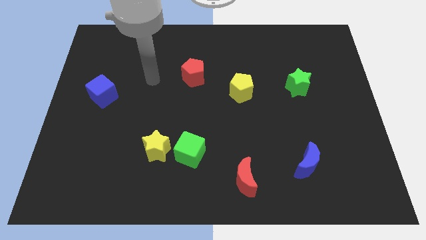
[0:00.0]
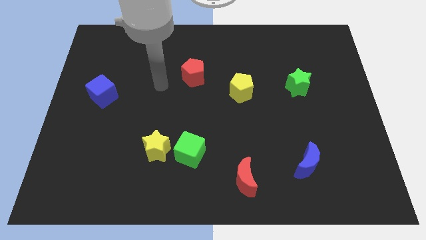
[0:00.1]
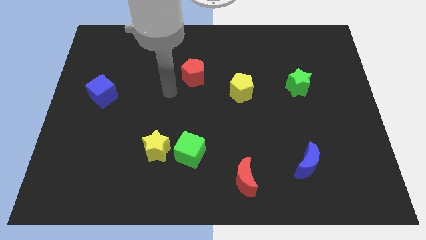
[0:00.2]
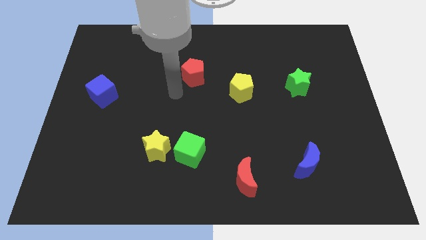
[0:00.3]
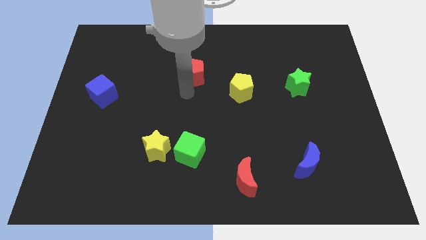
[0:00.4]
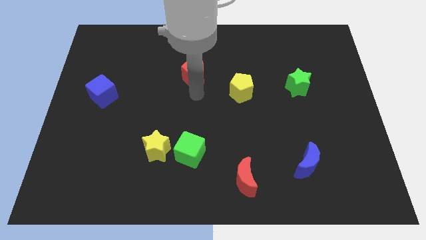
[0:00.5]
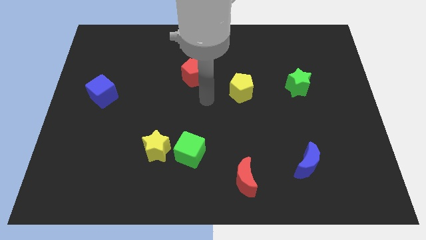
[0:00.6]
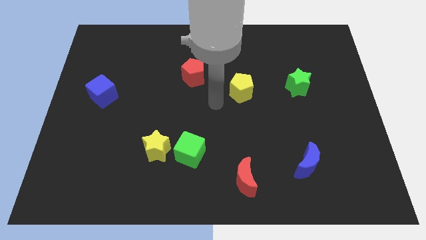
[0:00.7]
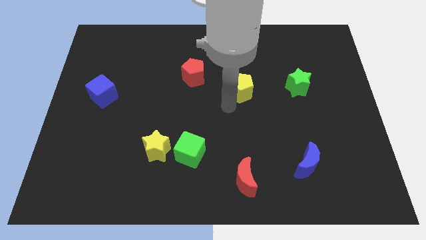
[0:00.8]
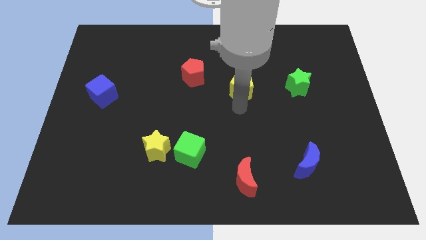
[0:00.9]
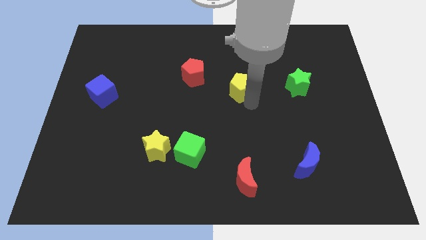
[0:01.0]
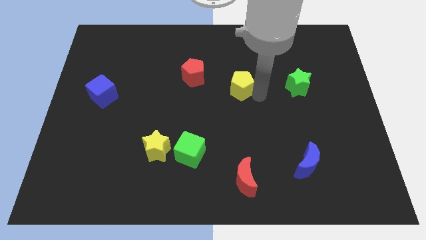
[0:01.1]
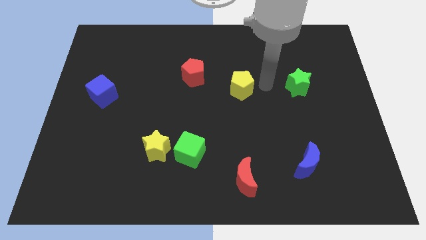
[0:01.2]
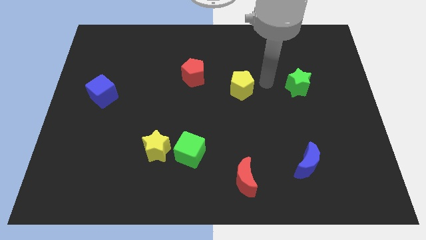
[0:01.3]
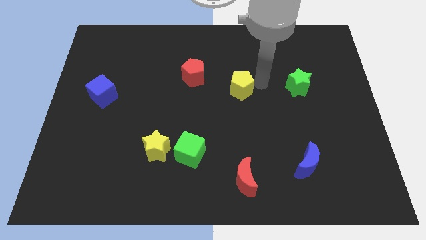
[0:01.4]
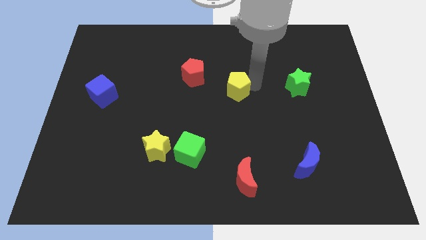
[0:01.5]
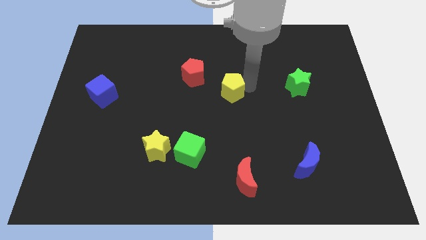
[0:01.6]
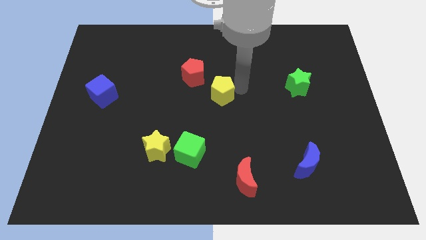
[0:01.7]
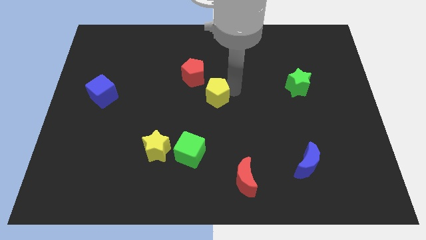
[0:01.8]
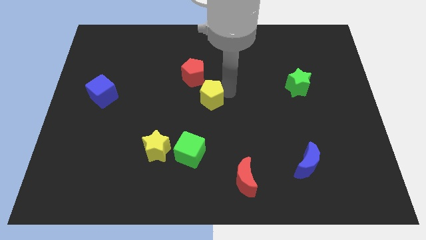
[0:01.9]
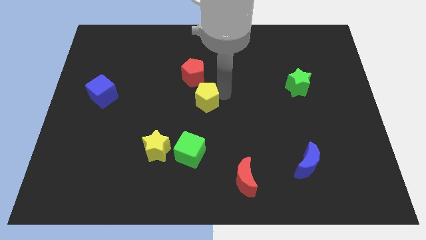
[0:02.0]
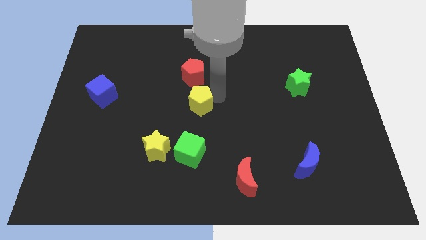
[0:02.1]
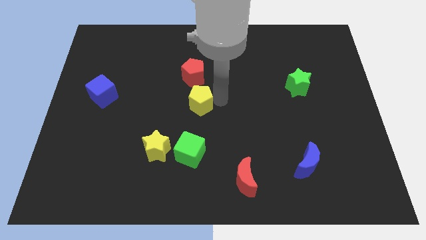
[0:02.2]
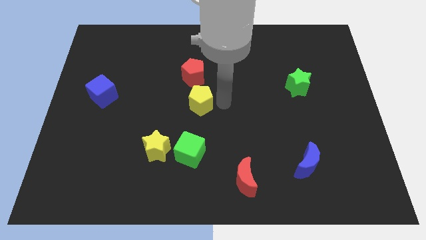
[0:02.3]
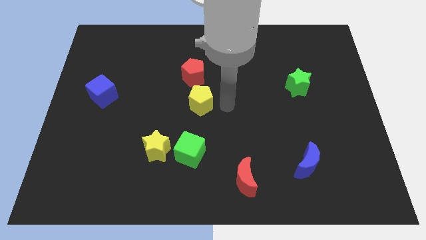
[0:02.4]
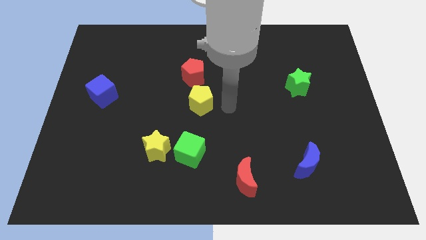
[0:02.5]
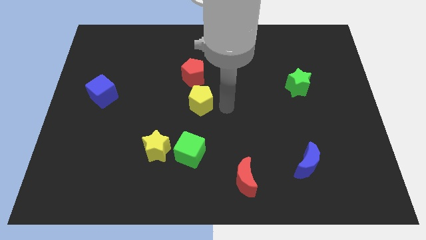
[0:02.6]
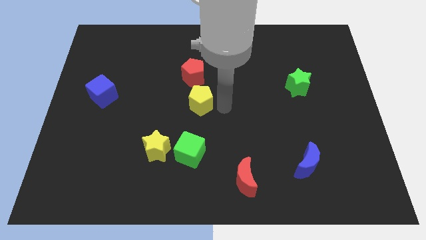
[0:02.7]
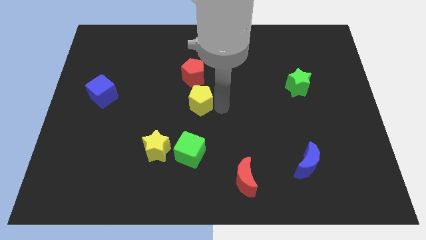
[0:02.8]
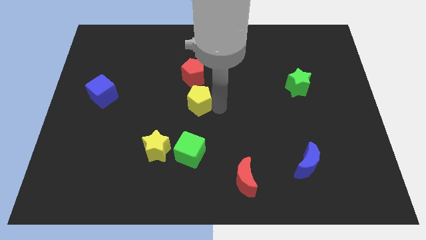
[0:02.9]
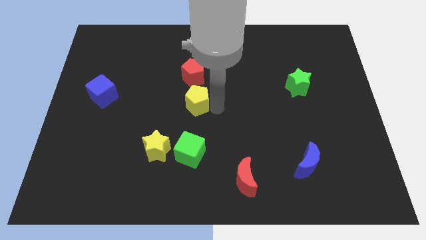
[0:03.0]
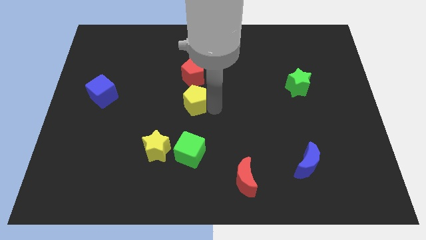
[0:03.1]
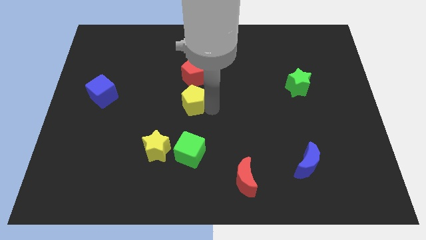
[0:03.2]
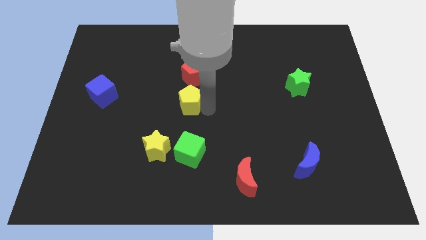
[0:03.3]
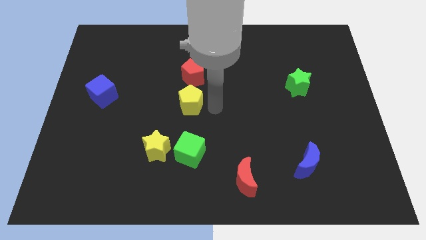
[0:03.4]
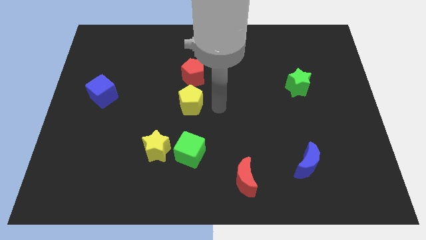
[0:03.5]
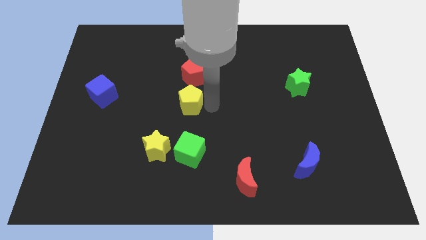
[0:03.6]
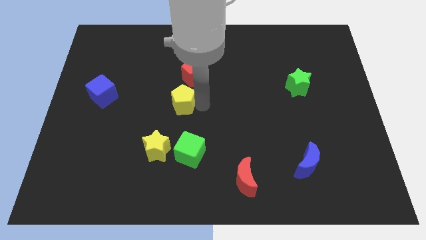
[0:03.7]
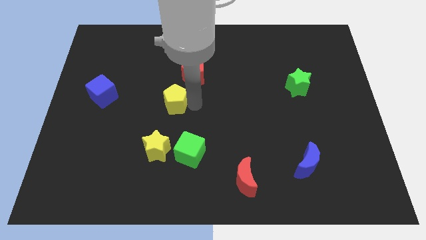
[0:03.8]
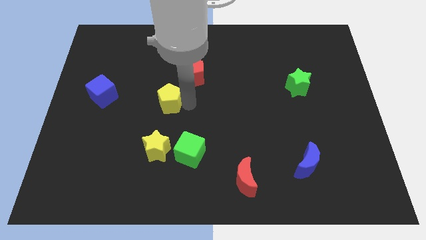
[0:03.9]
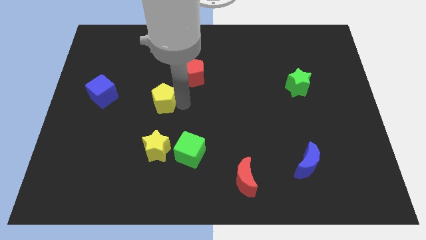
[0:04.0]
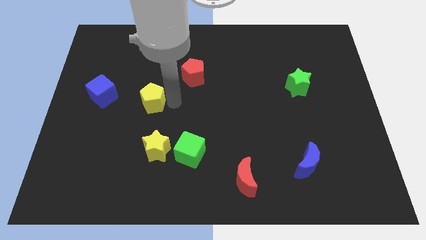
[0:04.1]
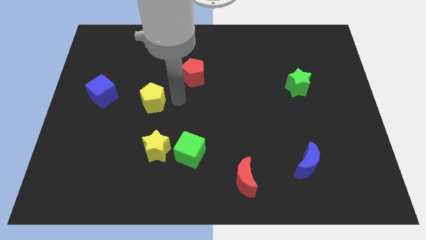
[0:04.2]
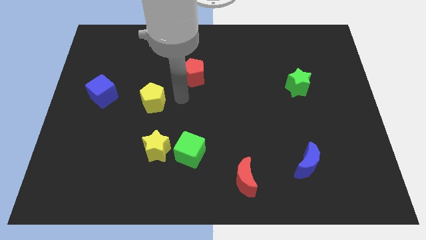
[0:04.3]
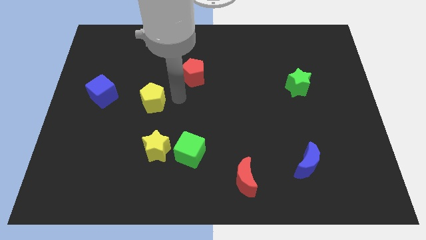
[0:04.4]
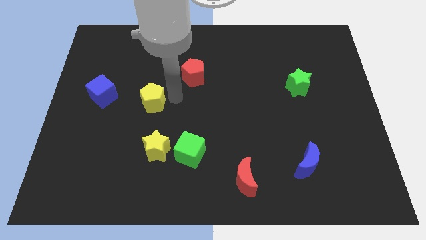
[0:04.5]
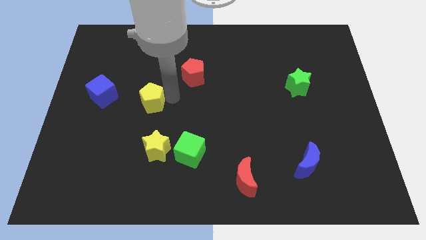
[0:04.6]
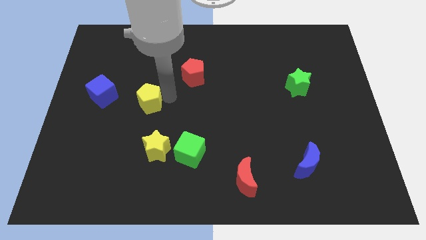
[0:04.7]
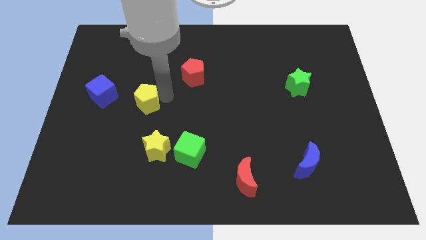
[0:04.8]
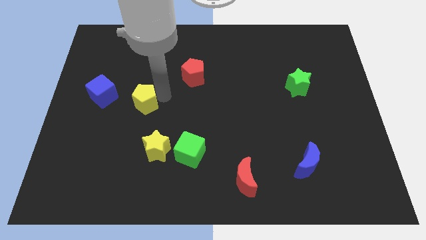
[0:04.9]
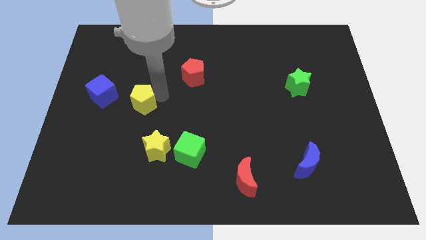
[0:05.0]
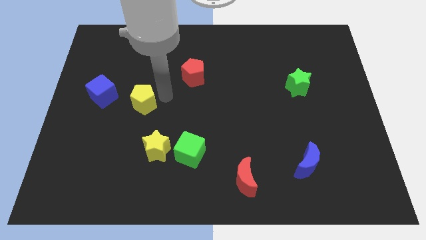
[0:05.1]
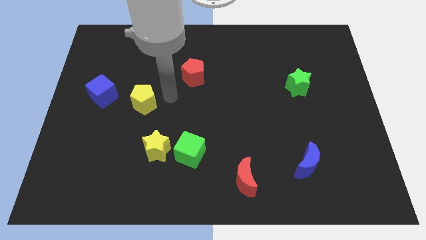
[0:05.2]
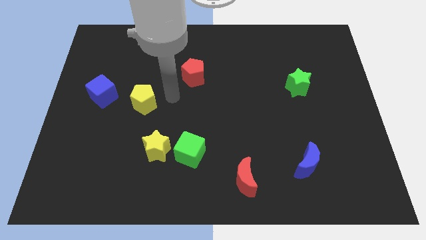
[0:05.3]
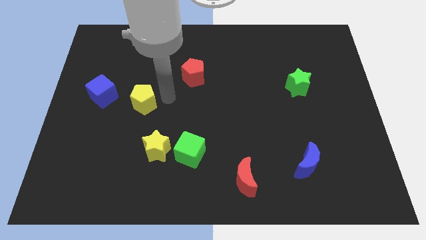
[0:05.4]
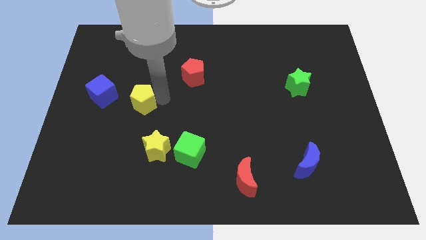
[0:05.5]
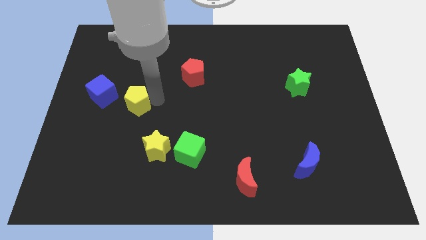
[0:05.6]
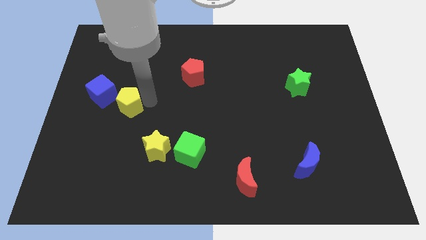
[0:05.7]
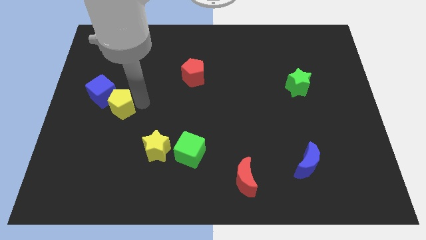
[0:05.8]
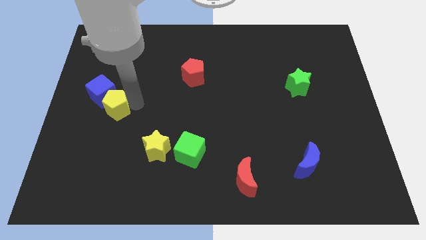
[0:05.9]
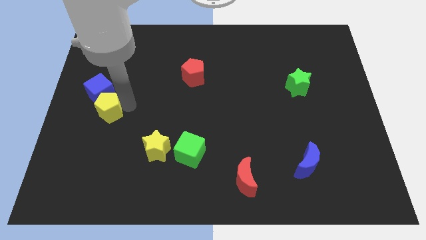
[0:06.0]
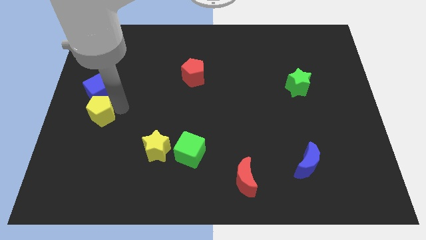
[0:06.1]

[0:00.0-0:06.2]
put the yellow pentagon to the left side
